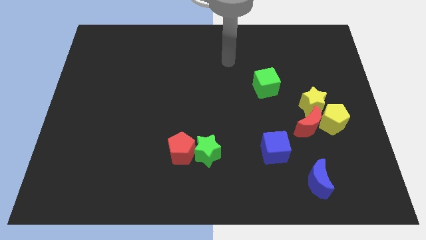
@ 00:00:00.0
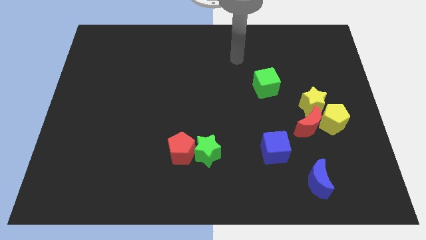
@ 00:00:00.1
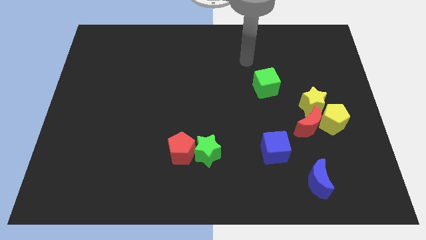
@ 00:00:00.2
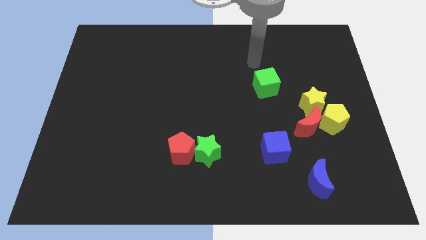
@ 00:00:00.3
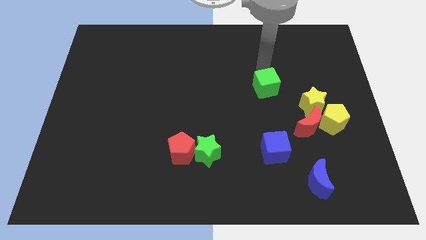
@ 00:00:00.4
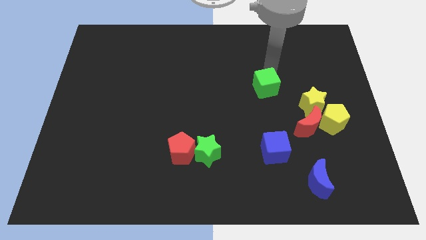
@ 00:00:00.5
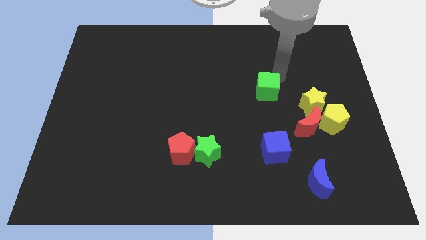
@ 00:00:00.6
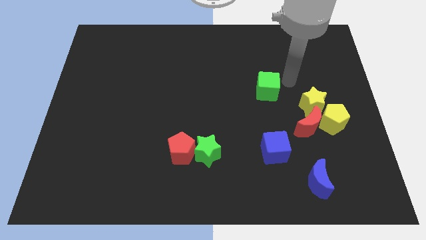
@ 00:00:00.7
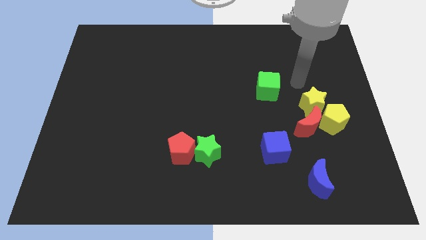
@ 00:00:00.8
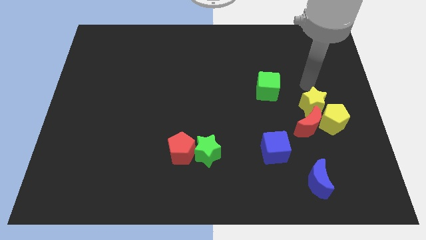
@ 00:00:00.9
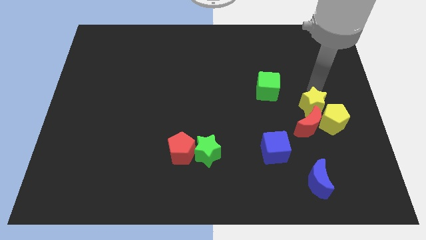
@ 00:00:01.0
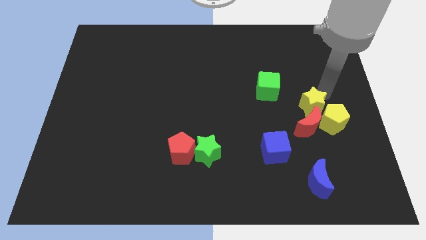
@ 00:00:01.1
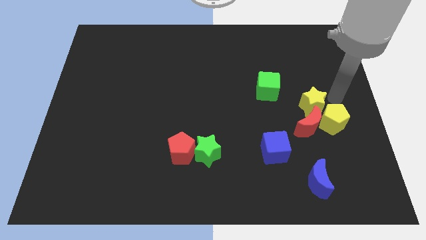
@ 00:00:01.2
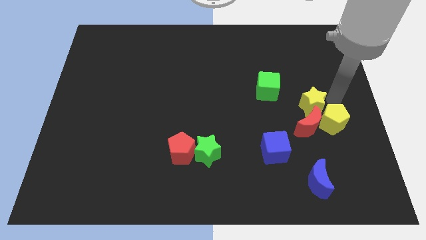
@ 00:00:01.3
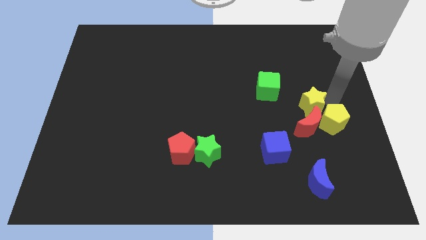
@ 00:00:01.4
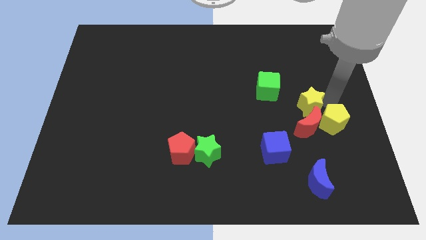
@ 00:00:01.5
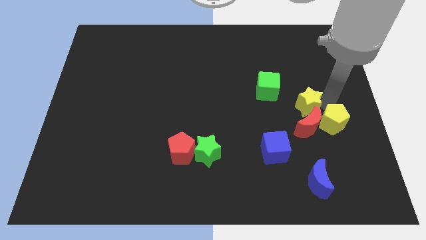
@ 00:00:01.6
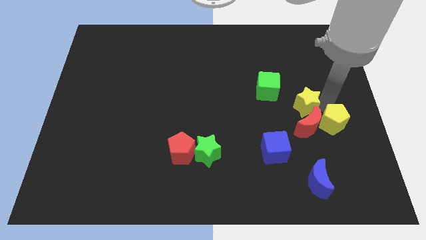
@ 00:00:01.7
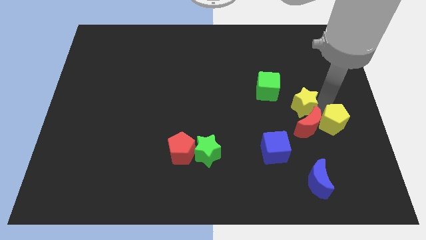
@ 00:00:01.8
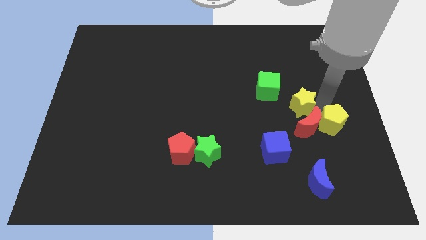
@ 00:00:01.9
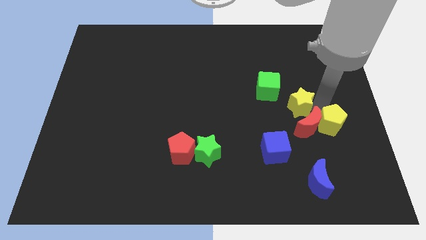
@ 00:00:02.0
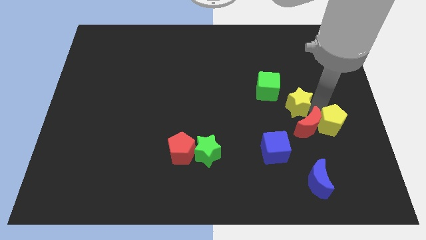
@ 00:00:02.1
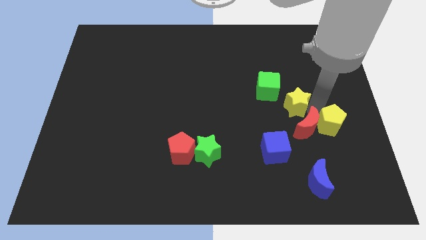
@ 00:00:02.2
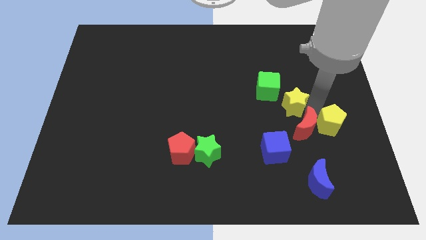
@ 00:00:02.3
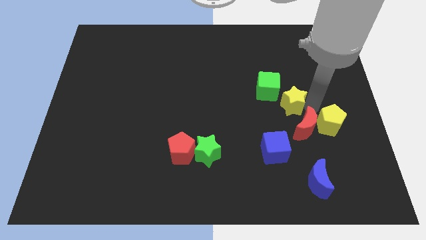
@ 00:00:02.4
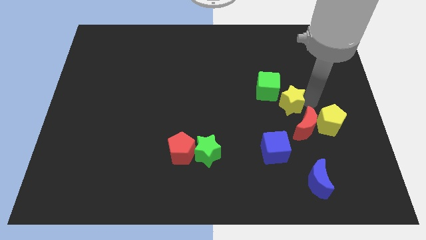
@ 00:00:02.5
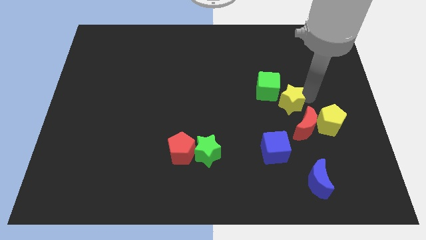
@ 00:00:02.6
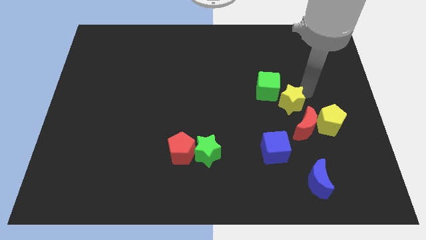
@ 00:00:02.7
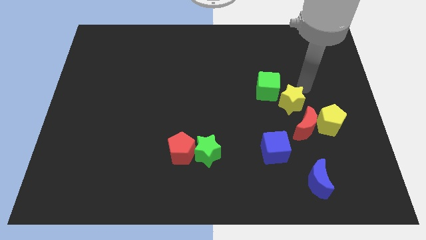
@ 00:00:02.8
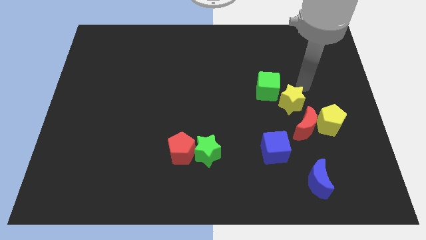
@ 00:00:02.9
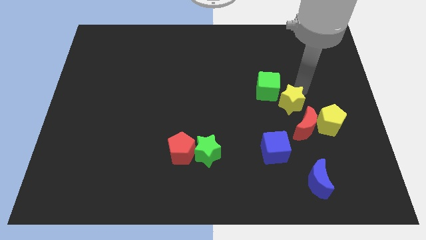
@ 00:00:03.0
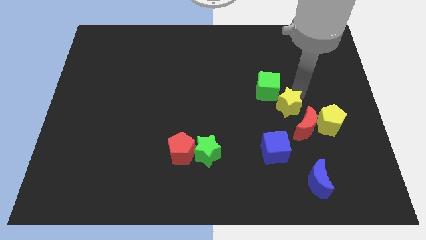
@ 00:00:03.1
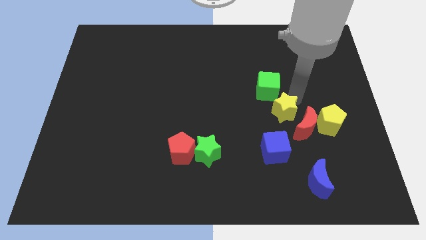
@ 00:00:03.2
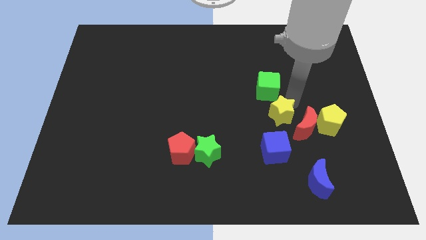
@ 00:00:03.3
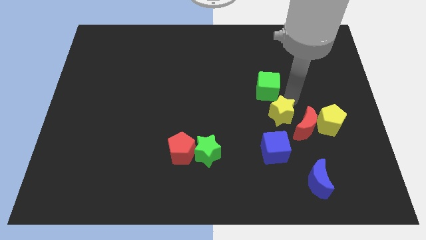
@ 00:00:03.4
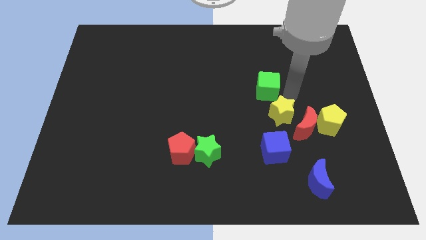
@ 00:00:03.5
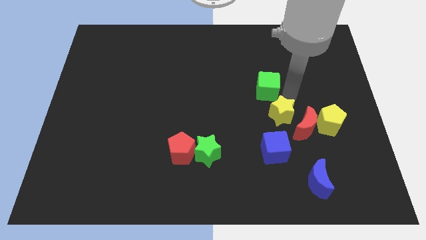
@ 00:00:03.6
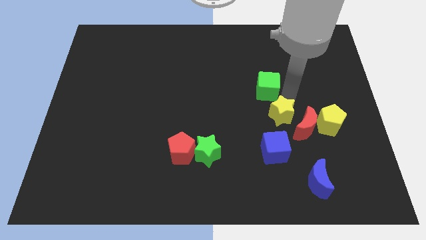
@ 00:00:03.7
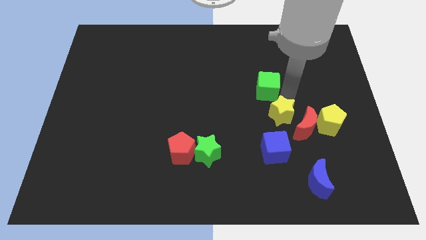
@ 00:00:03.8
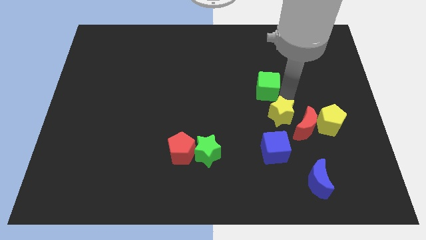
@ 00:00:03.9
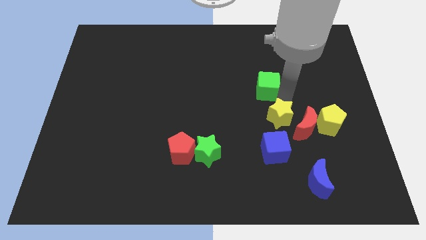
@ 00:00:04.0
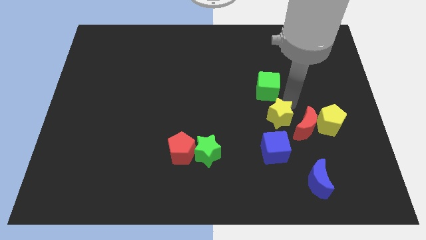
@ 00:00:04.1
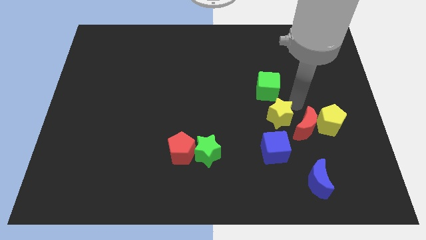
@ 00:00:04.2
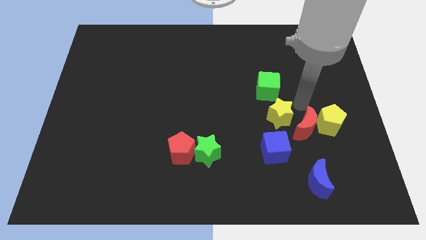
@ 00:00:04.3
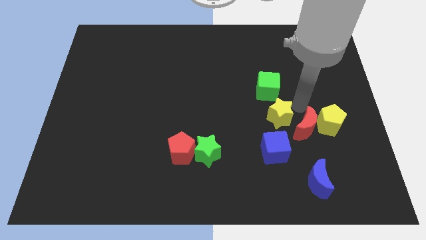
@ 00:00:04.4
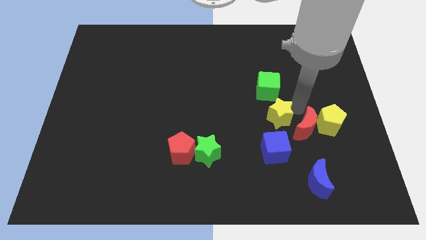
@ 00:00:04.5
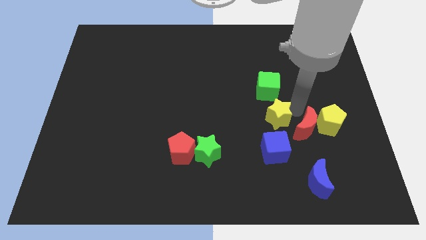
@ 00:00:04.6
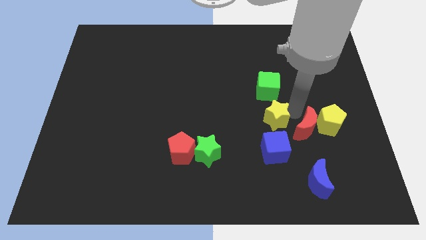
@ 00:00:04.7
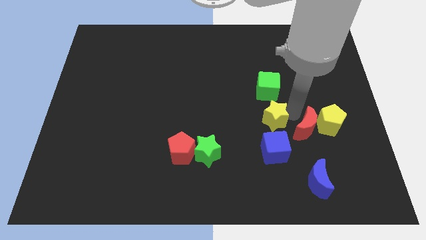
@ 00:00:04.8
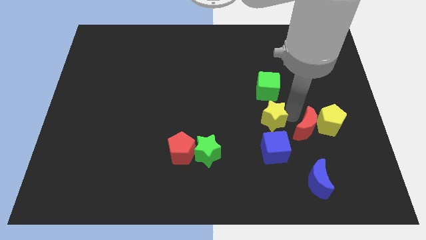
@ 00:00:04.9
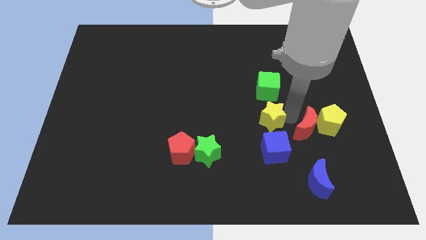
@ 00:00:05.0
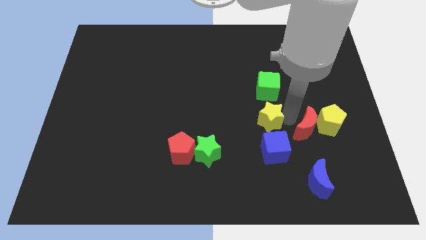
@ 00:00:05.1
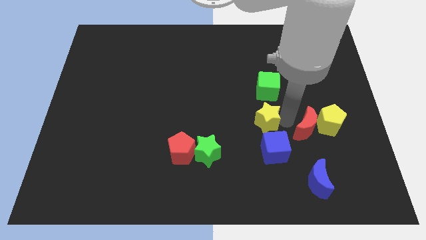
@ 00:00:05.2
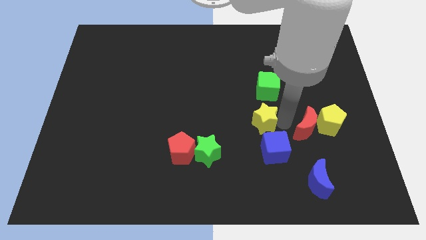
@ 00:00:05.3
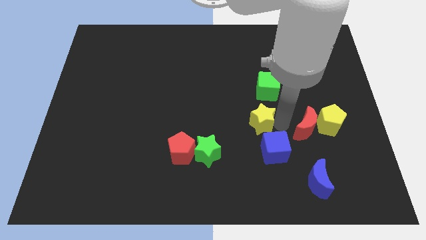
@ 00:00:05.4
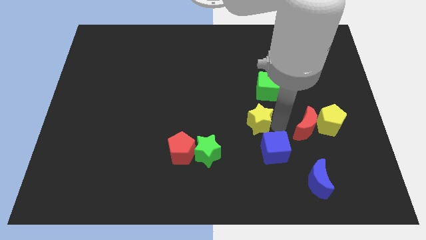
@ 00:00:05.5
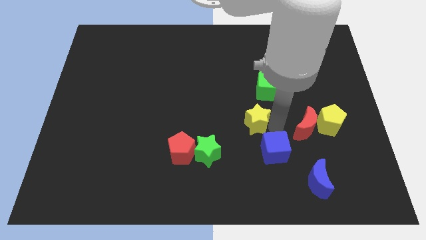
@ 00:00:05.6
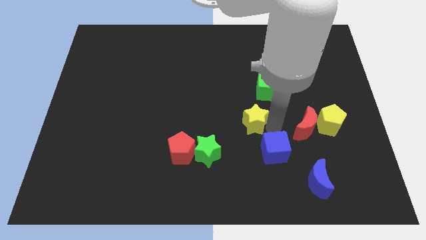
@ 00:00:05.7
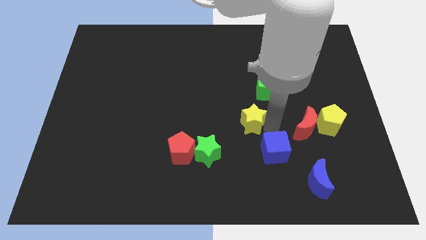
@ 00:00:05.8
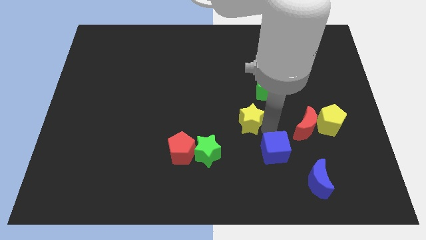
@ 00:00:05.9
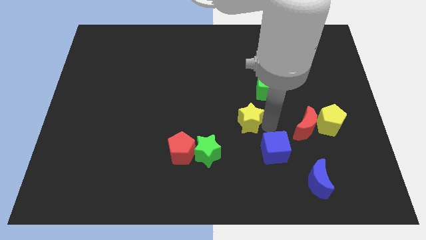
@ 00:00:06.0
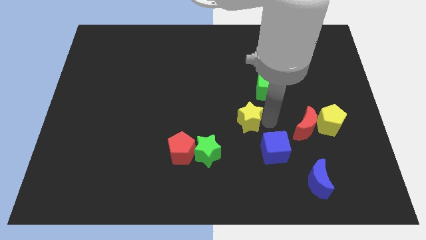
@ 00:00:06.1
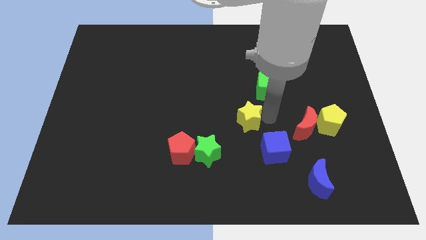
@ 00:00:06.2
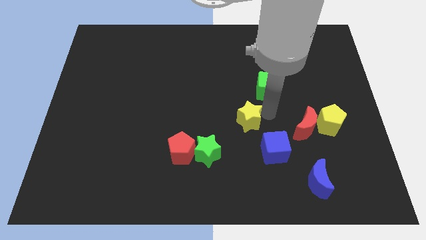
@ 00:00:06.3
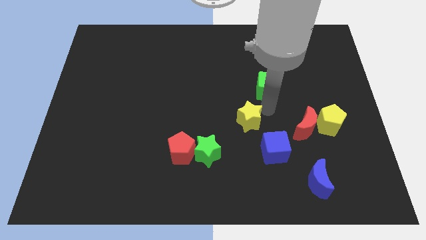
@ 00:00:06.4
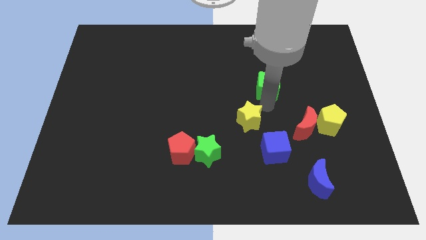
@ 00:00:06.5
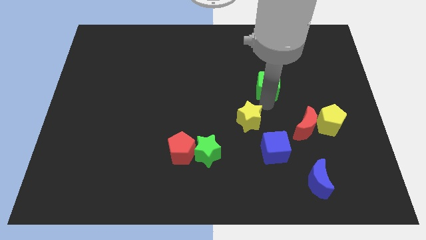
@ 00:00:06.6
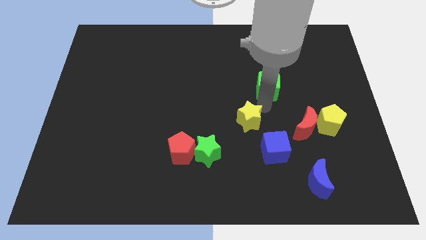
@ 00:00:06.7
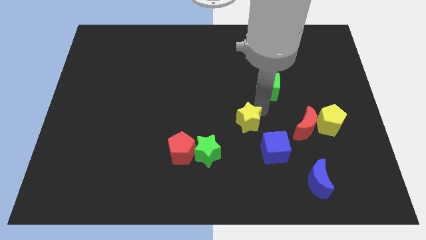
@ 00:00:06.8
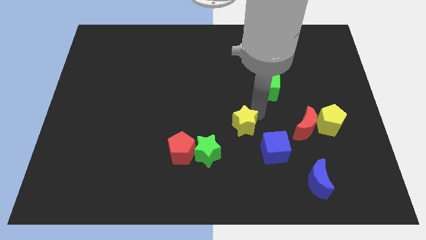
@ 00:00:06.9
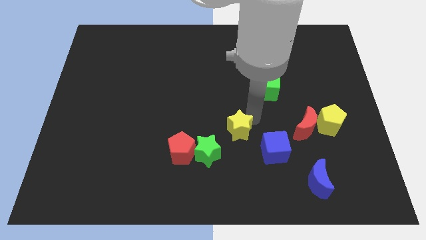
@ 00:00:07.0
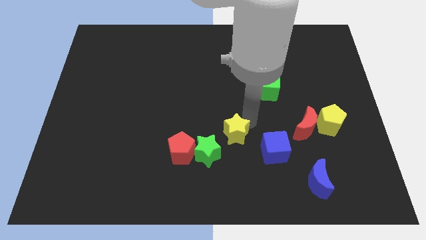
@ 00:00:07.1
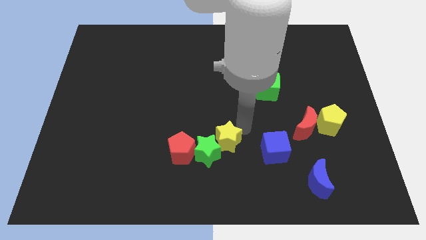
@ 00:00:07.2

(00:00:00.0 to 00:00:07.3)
move the yellow star to the green star
